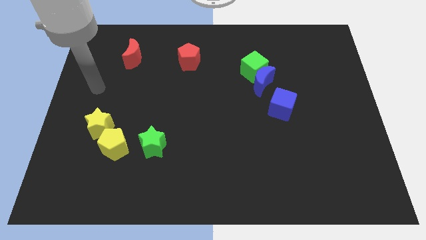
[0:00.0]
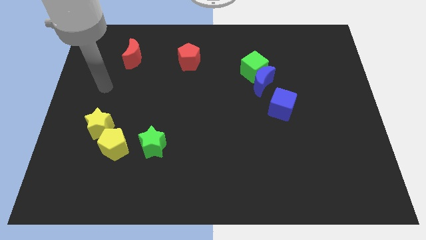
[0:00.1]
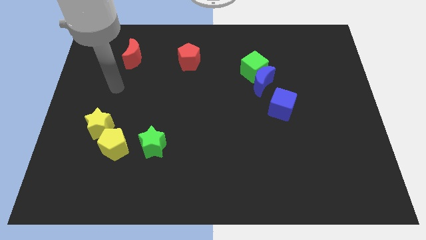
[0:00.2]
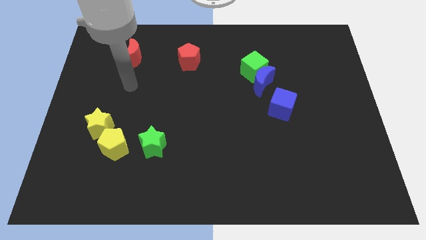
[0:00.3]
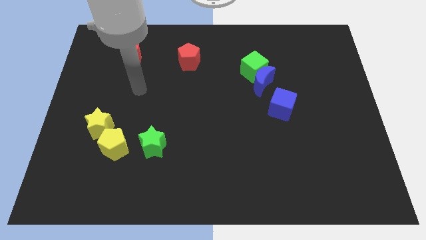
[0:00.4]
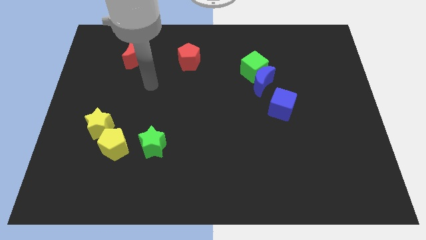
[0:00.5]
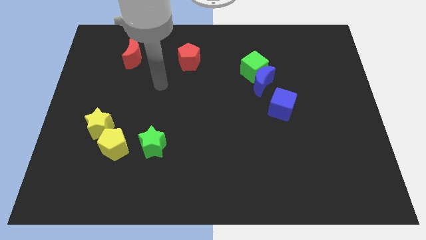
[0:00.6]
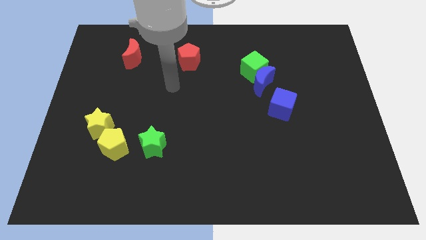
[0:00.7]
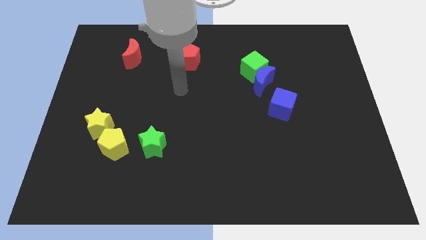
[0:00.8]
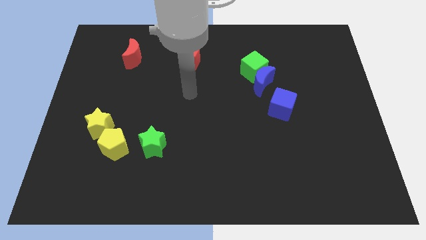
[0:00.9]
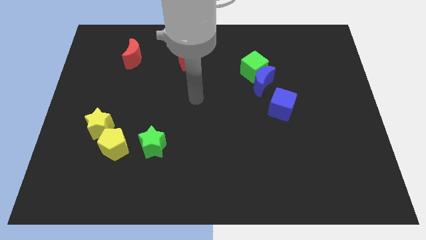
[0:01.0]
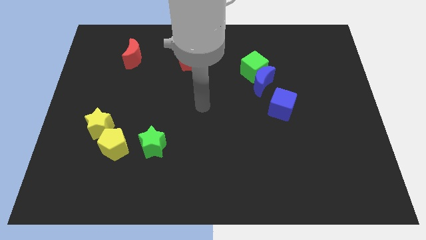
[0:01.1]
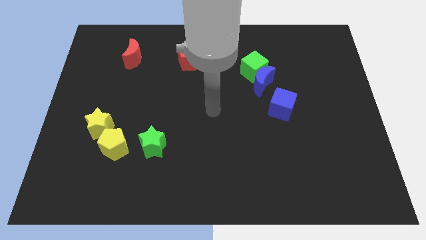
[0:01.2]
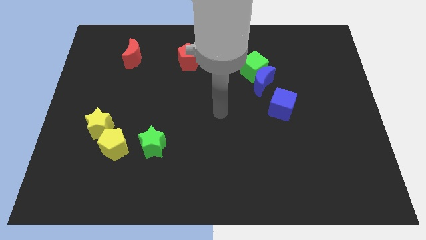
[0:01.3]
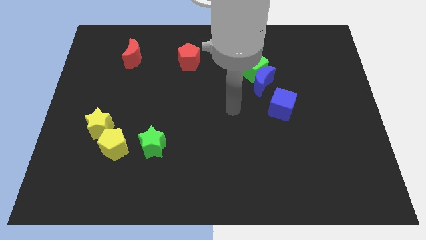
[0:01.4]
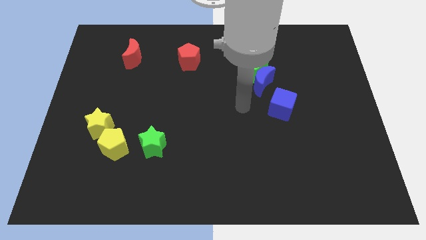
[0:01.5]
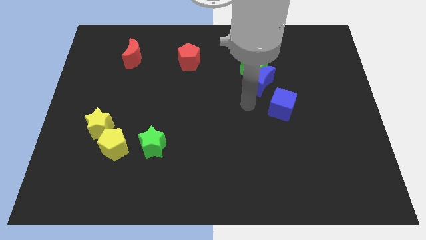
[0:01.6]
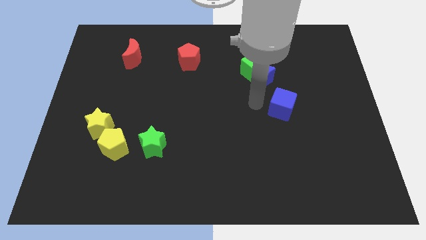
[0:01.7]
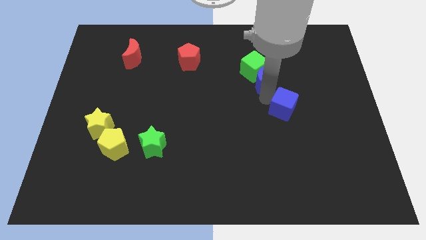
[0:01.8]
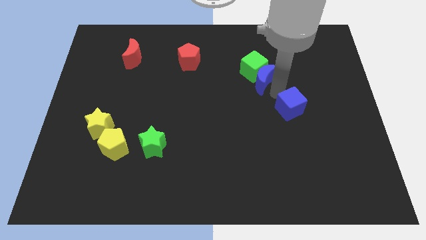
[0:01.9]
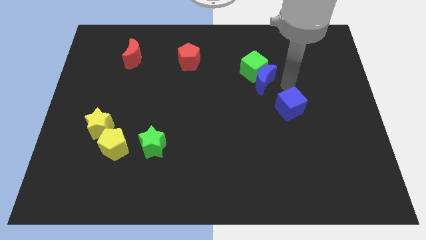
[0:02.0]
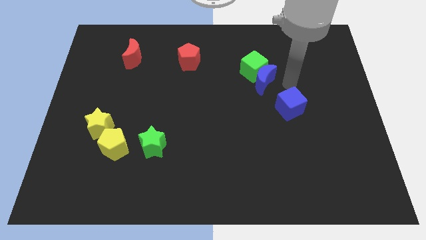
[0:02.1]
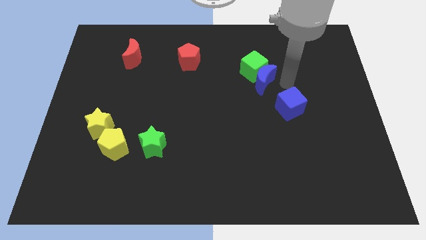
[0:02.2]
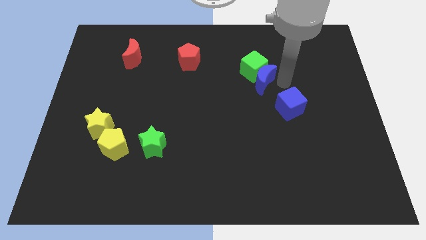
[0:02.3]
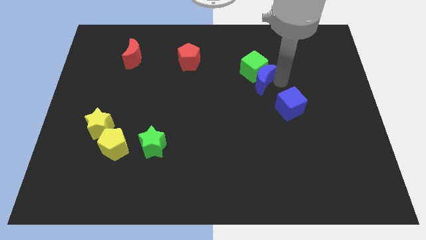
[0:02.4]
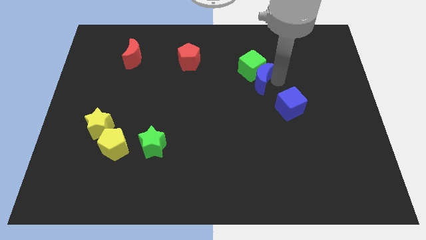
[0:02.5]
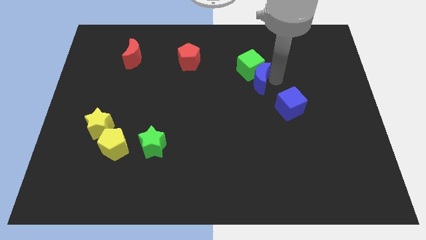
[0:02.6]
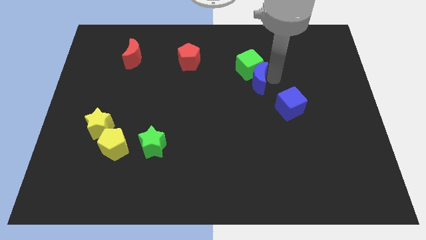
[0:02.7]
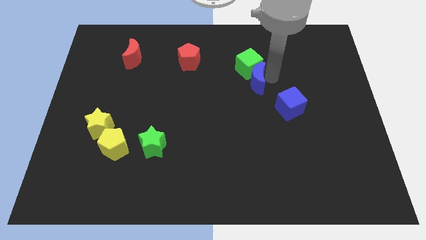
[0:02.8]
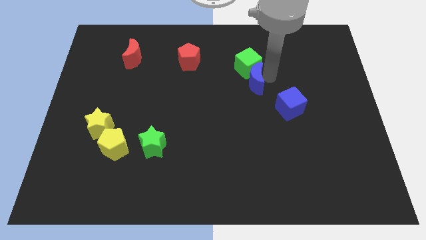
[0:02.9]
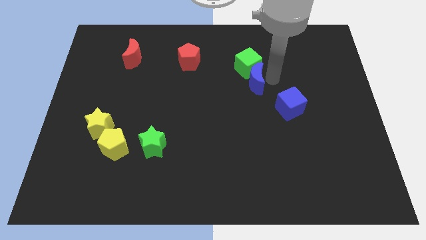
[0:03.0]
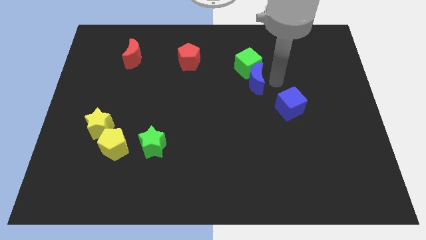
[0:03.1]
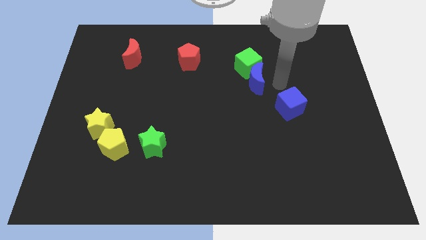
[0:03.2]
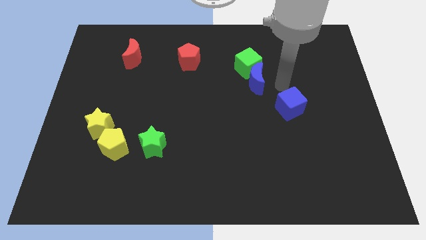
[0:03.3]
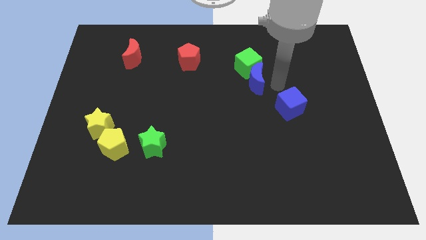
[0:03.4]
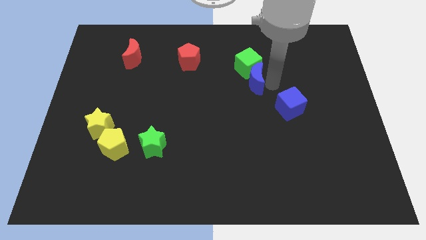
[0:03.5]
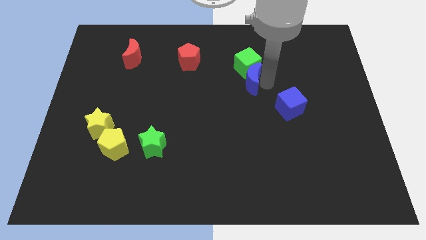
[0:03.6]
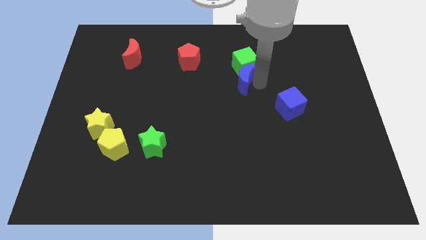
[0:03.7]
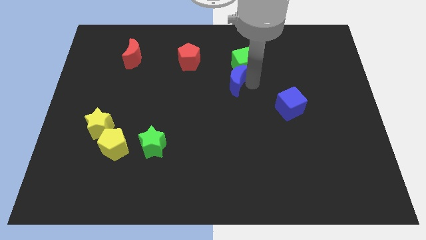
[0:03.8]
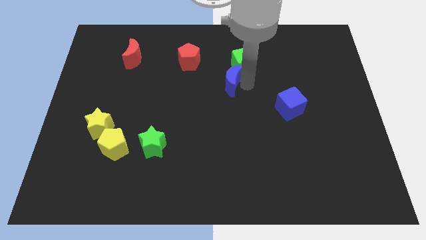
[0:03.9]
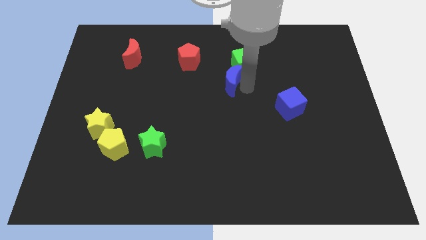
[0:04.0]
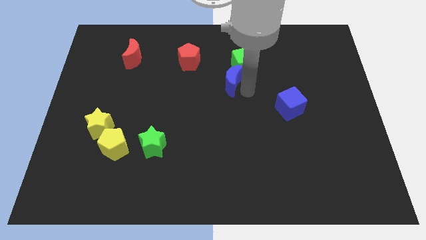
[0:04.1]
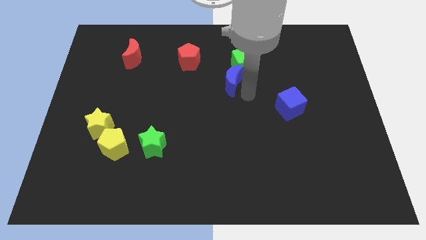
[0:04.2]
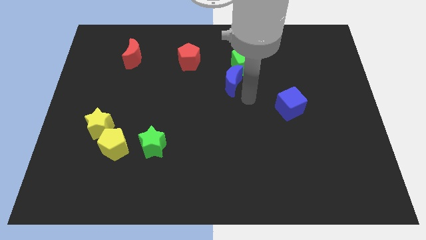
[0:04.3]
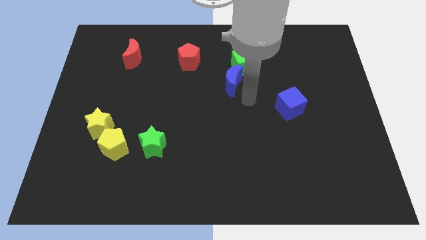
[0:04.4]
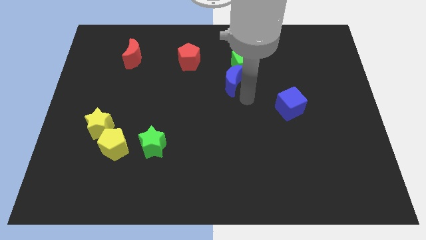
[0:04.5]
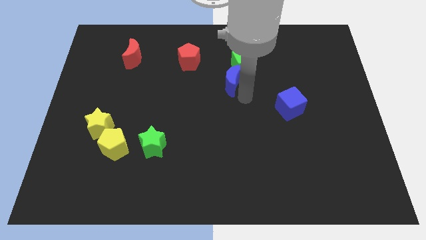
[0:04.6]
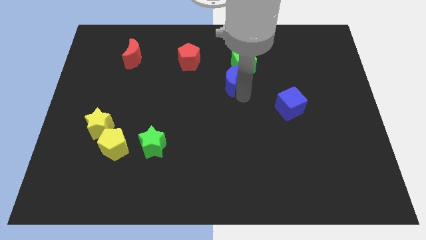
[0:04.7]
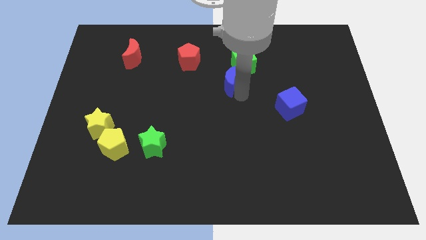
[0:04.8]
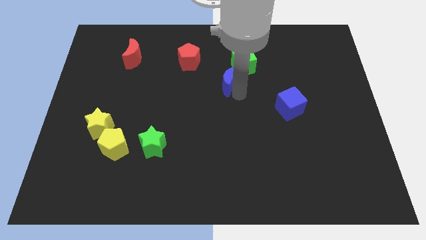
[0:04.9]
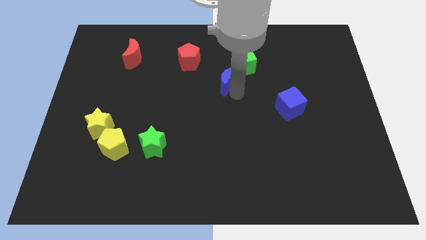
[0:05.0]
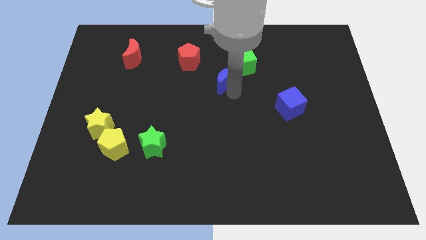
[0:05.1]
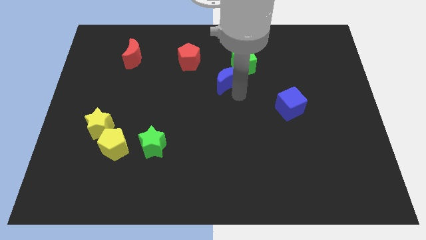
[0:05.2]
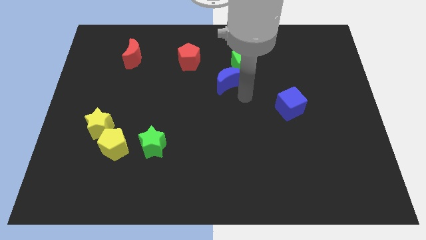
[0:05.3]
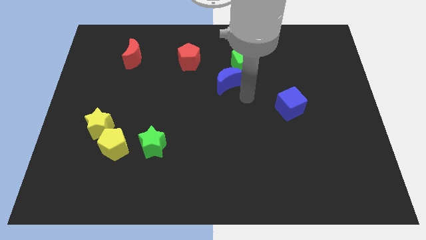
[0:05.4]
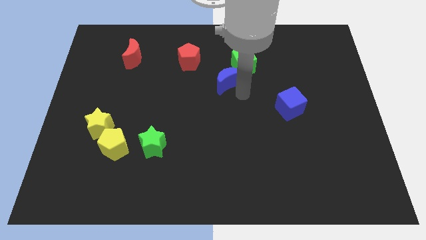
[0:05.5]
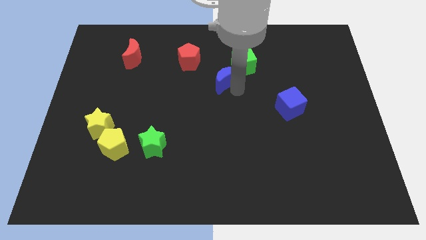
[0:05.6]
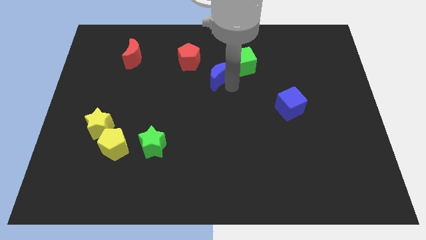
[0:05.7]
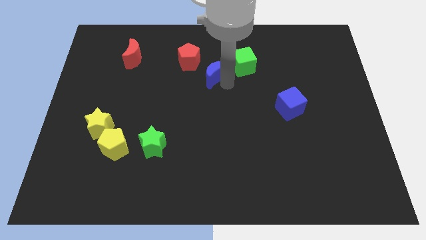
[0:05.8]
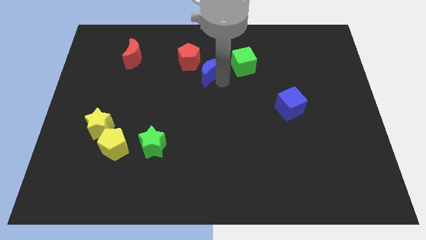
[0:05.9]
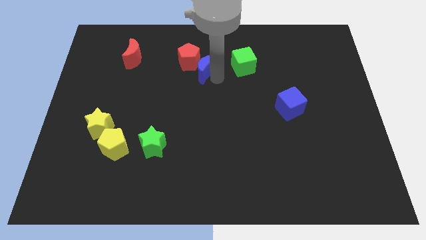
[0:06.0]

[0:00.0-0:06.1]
put the blue moon to the red pentagon

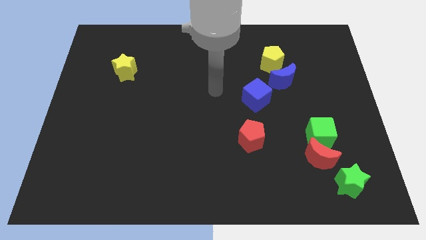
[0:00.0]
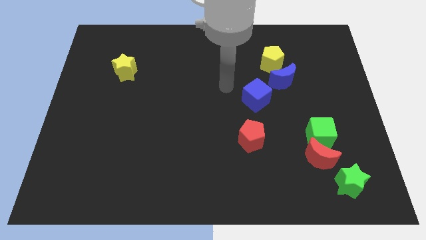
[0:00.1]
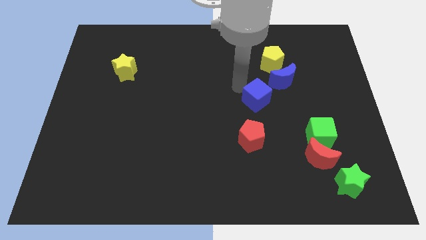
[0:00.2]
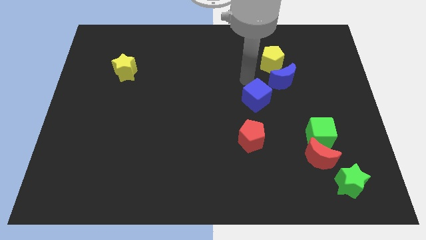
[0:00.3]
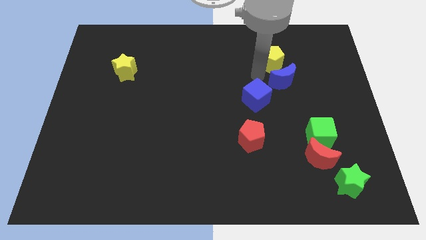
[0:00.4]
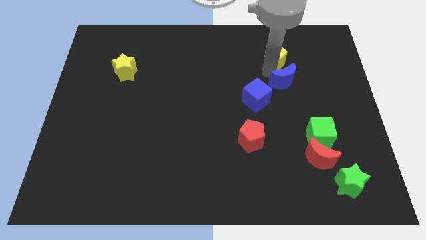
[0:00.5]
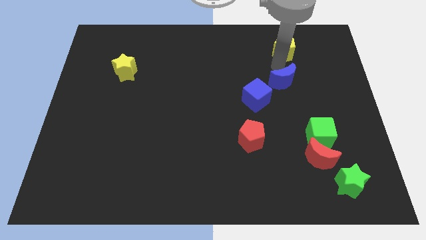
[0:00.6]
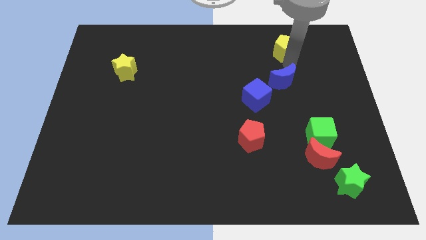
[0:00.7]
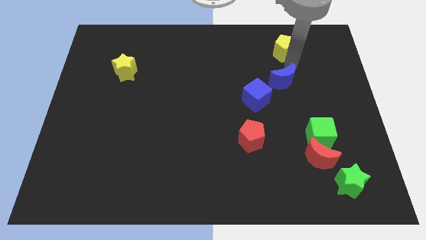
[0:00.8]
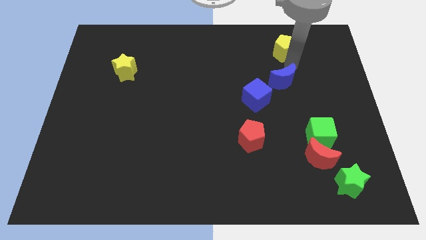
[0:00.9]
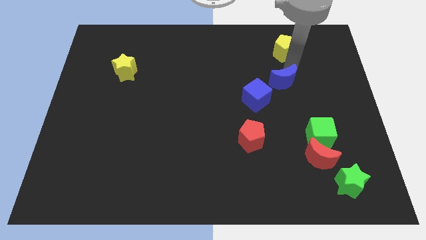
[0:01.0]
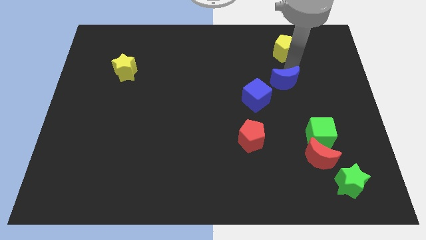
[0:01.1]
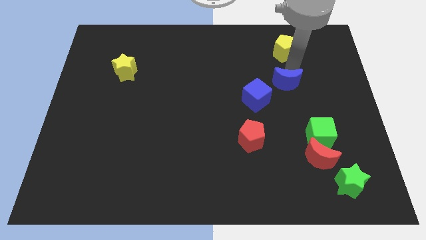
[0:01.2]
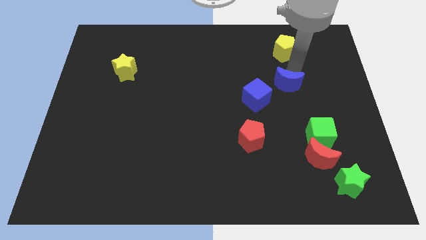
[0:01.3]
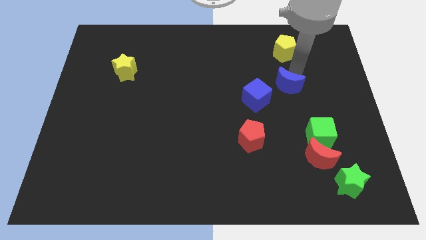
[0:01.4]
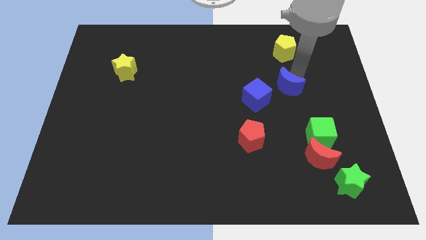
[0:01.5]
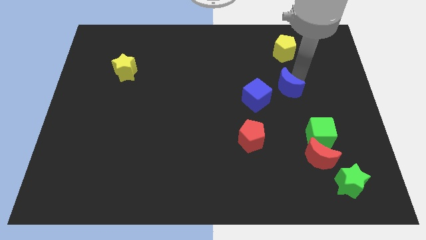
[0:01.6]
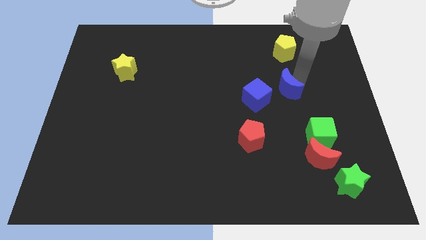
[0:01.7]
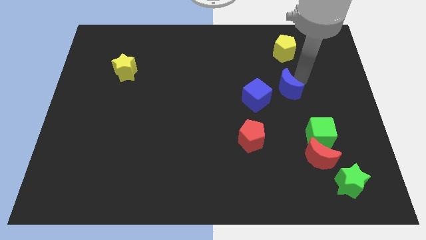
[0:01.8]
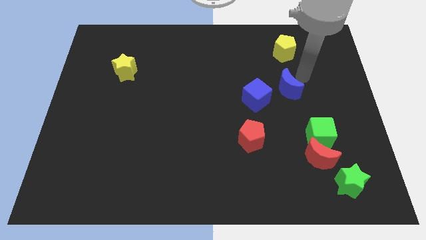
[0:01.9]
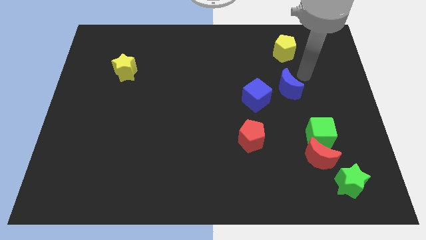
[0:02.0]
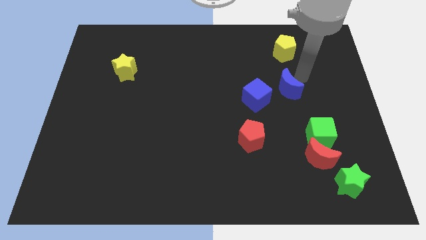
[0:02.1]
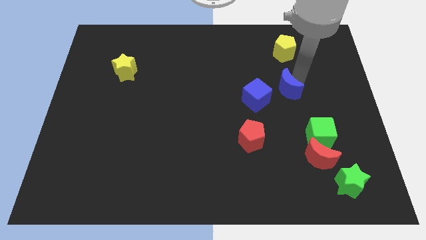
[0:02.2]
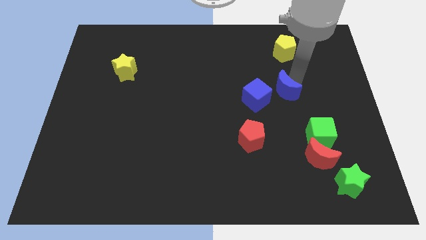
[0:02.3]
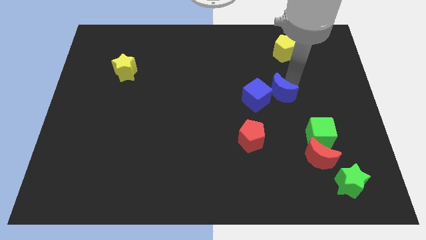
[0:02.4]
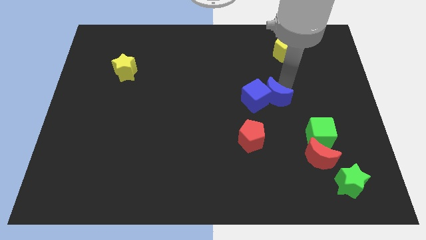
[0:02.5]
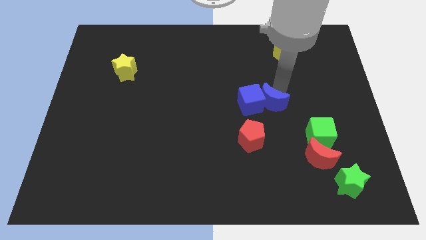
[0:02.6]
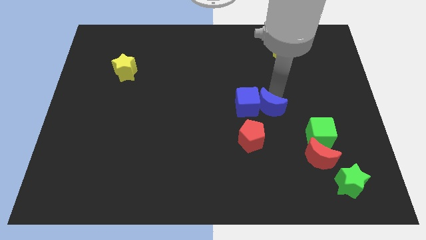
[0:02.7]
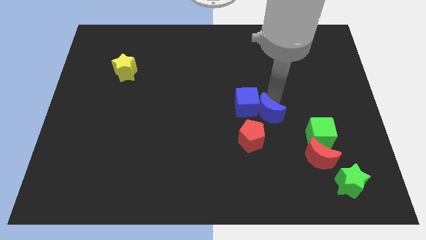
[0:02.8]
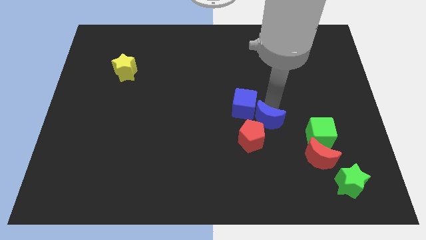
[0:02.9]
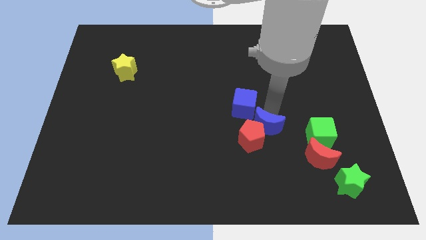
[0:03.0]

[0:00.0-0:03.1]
push the blue moon towards the red pentagon
